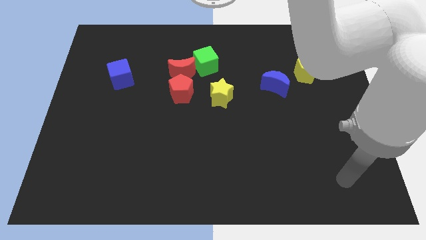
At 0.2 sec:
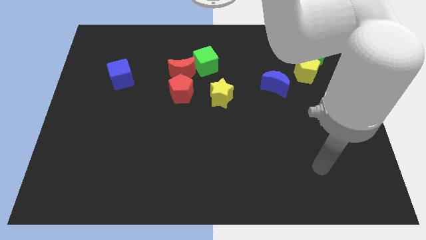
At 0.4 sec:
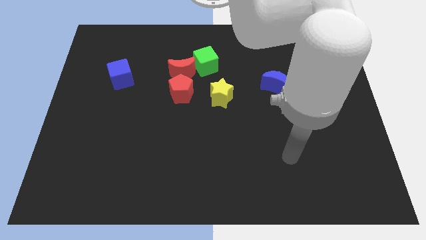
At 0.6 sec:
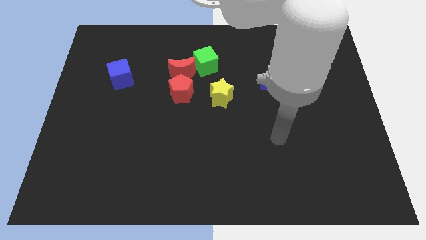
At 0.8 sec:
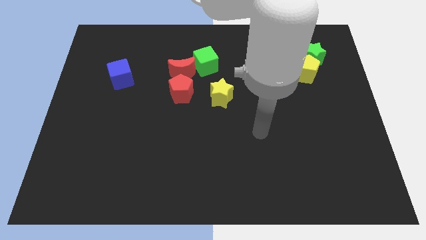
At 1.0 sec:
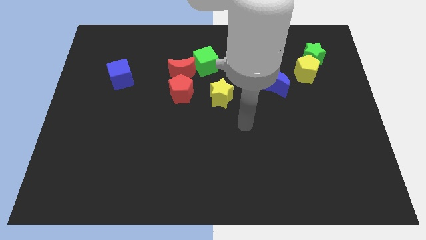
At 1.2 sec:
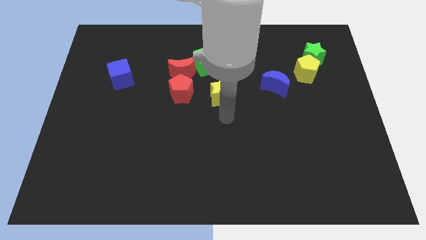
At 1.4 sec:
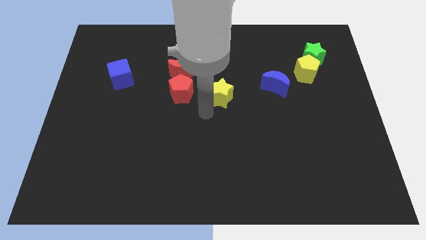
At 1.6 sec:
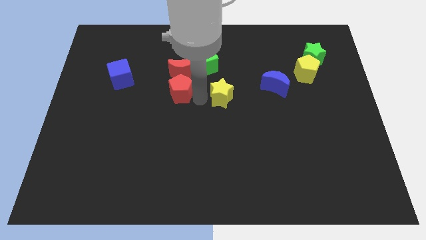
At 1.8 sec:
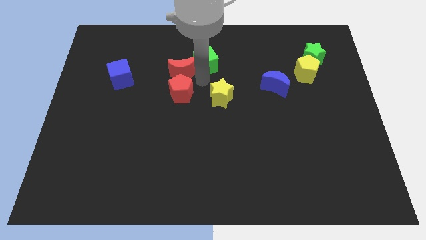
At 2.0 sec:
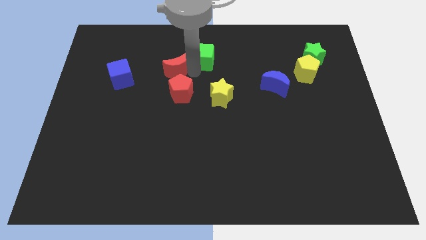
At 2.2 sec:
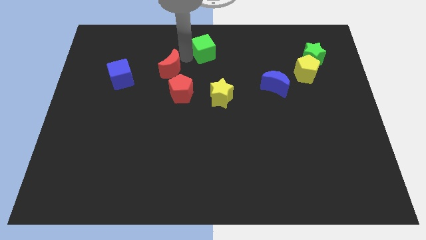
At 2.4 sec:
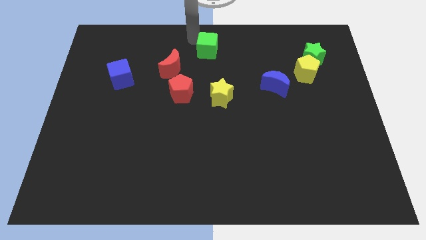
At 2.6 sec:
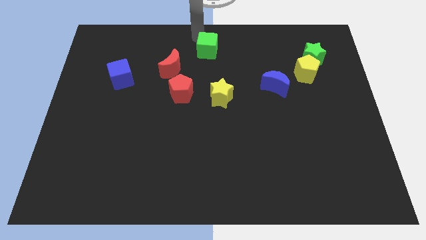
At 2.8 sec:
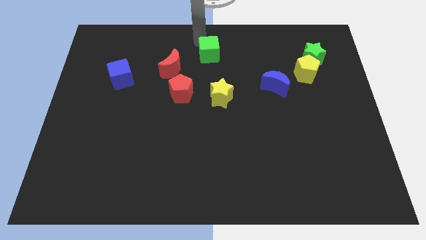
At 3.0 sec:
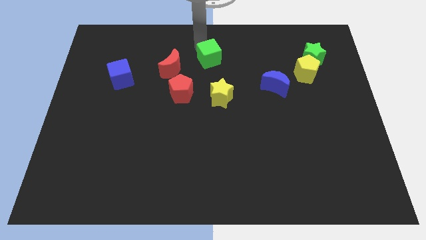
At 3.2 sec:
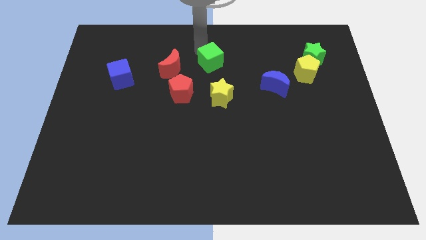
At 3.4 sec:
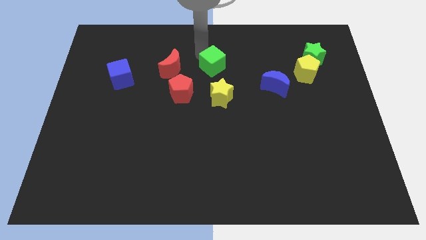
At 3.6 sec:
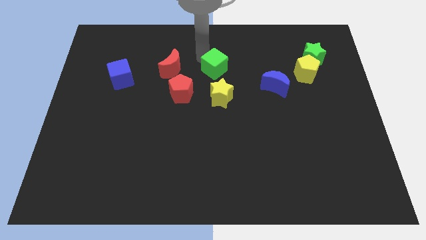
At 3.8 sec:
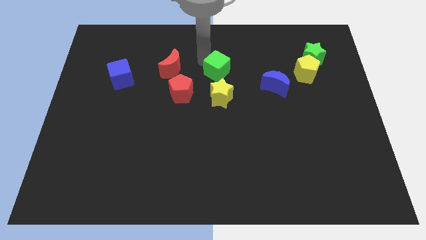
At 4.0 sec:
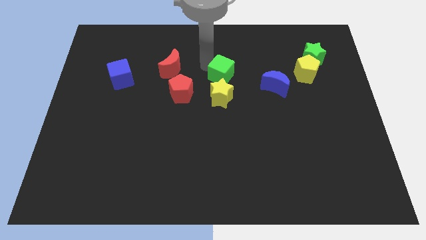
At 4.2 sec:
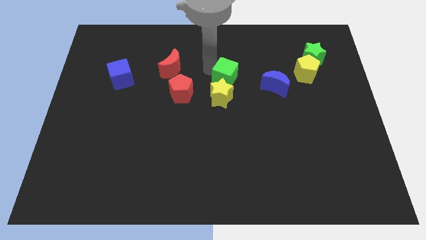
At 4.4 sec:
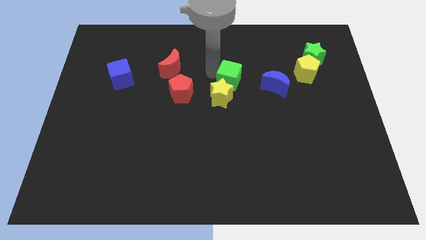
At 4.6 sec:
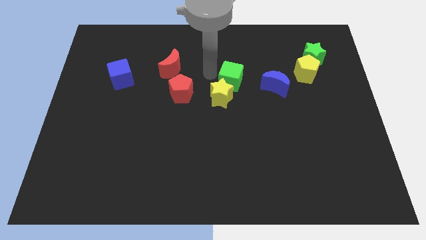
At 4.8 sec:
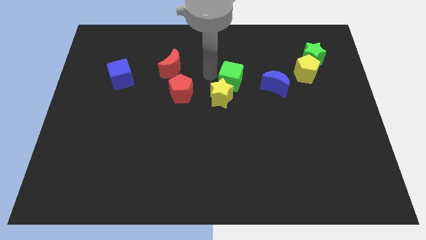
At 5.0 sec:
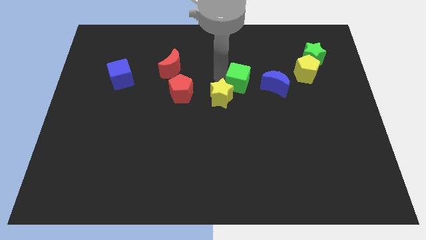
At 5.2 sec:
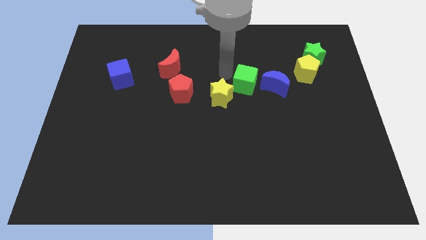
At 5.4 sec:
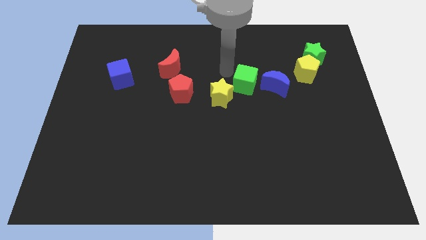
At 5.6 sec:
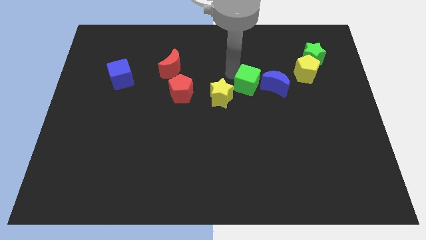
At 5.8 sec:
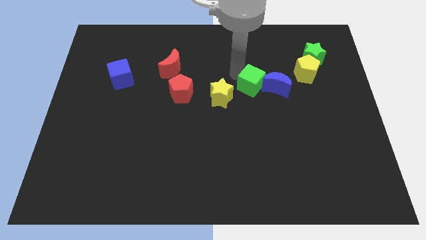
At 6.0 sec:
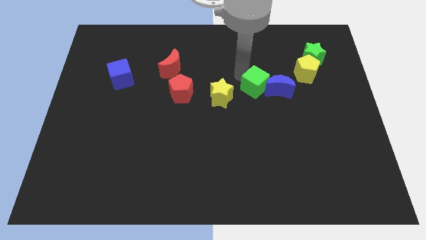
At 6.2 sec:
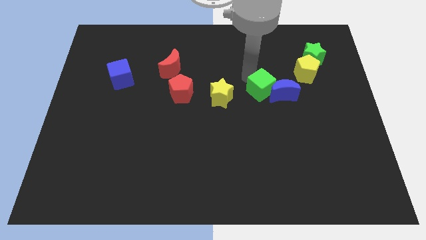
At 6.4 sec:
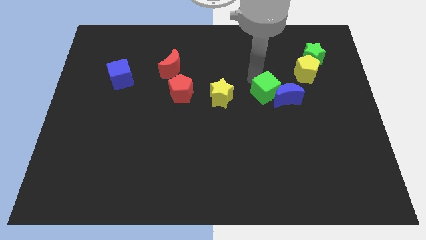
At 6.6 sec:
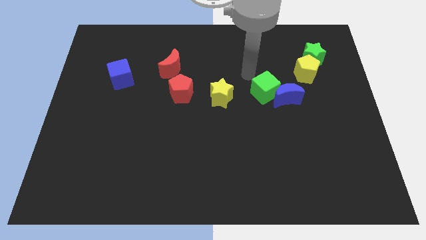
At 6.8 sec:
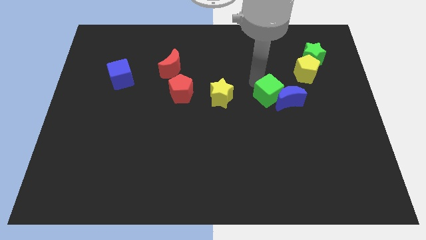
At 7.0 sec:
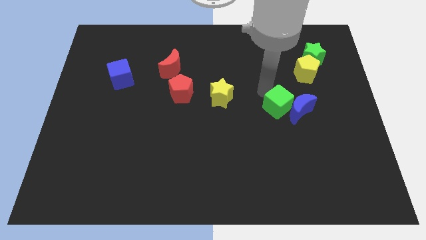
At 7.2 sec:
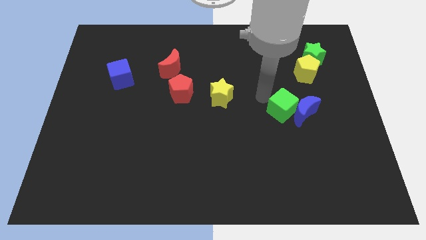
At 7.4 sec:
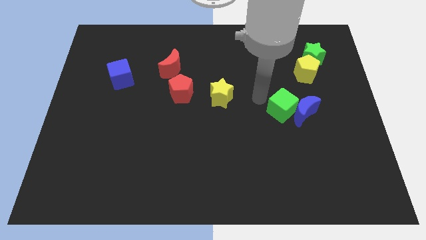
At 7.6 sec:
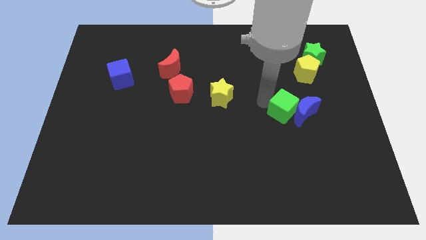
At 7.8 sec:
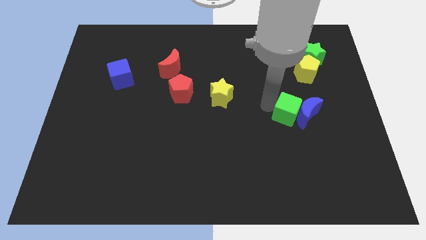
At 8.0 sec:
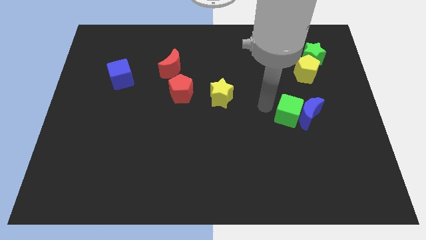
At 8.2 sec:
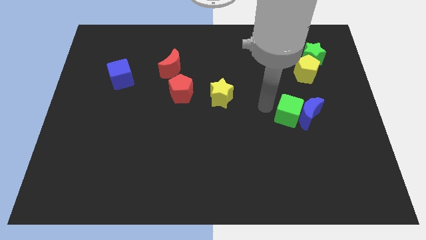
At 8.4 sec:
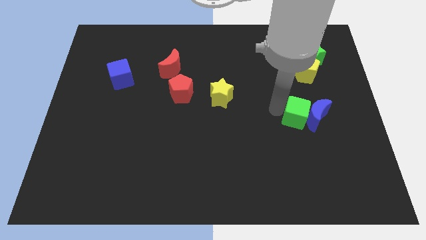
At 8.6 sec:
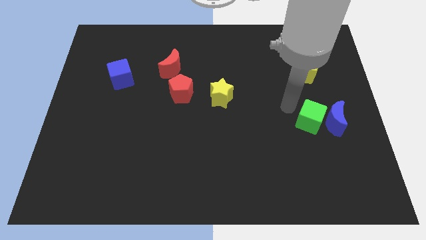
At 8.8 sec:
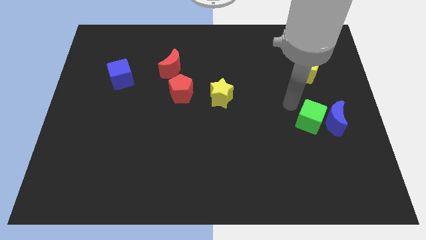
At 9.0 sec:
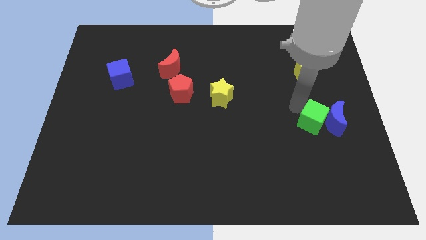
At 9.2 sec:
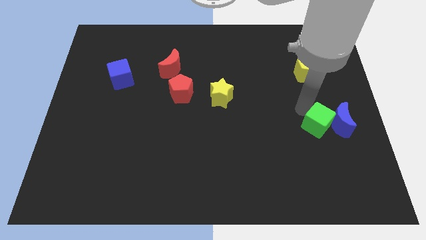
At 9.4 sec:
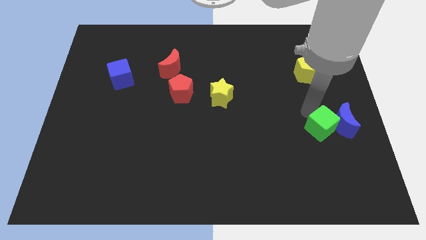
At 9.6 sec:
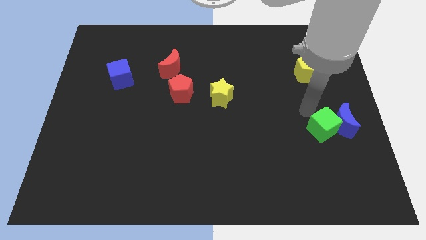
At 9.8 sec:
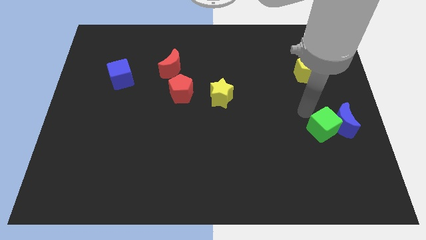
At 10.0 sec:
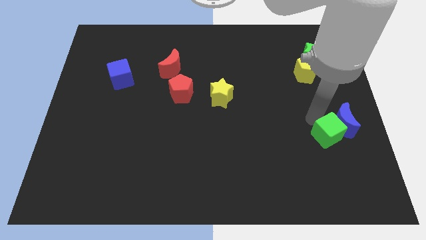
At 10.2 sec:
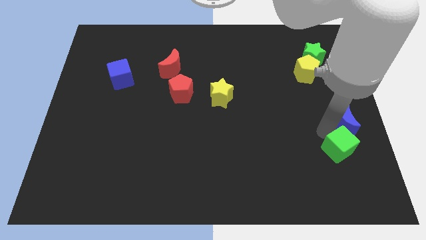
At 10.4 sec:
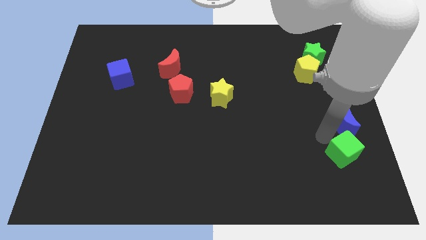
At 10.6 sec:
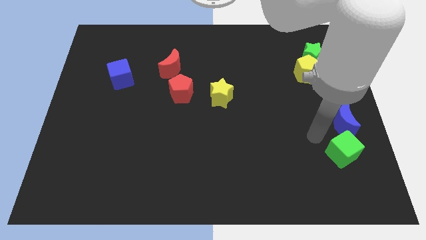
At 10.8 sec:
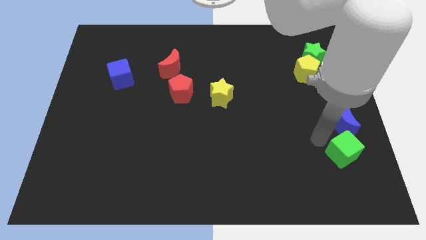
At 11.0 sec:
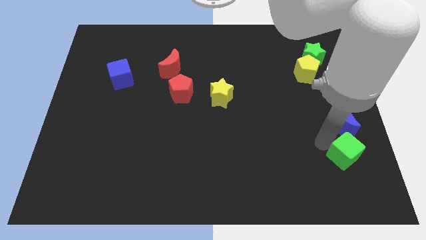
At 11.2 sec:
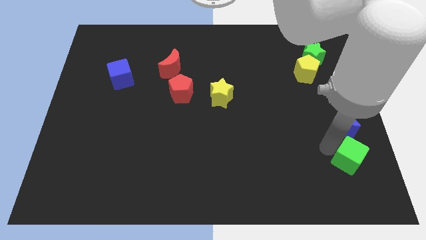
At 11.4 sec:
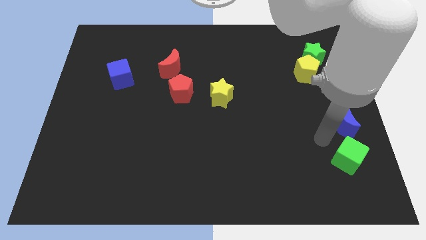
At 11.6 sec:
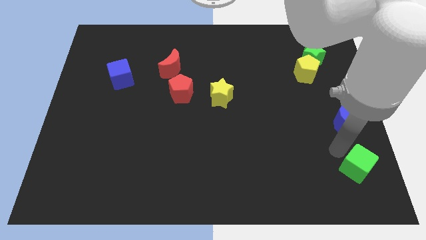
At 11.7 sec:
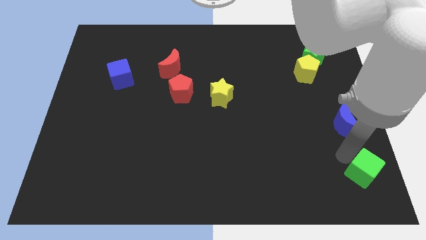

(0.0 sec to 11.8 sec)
push the green cube to the bottom right of the board
